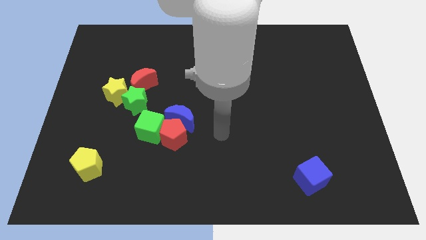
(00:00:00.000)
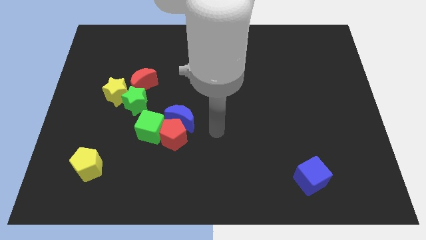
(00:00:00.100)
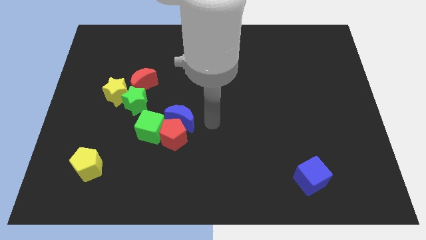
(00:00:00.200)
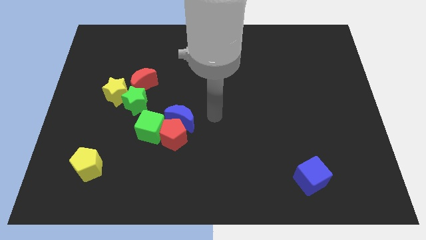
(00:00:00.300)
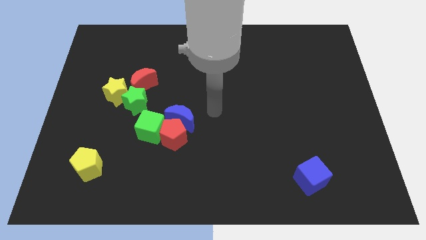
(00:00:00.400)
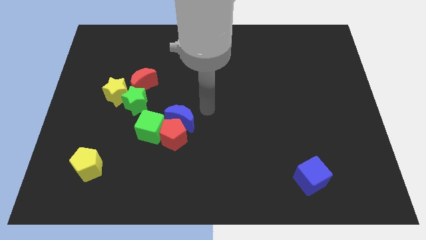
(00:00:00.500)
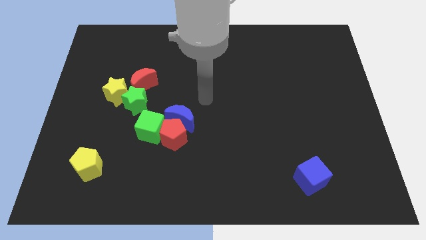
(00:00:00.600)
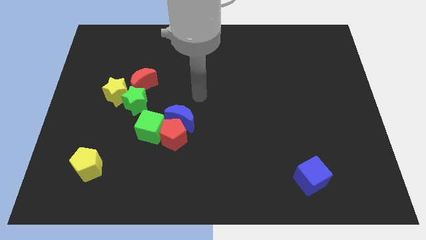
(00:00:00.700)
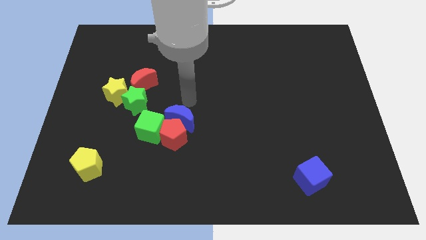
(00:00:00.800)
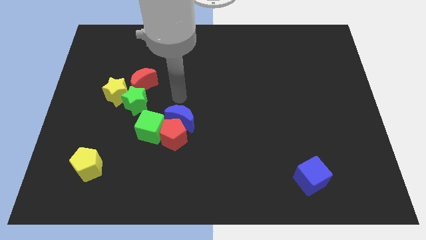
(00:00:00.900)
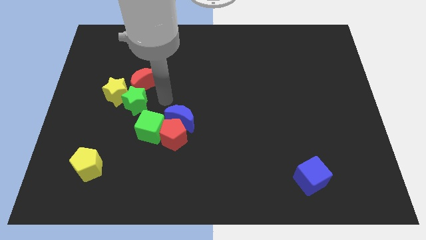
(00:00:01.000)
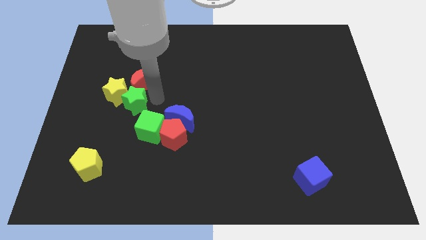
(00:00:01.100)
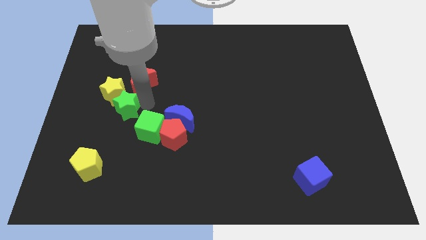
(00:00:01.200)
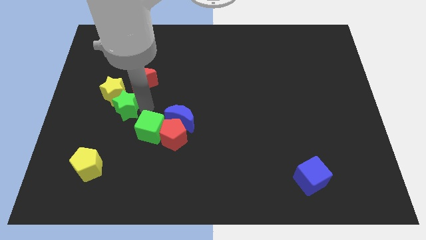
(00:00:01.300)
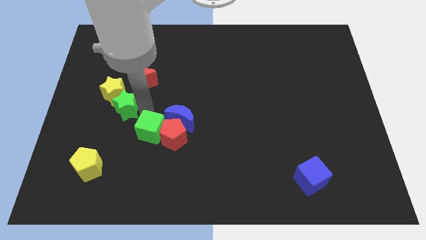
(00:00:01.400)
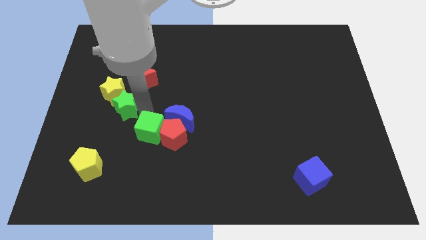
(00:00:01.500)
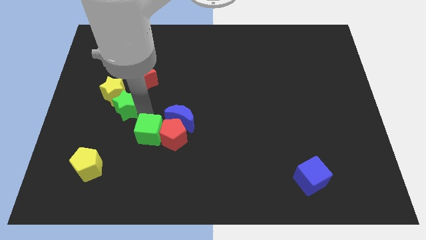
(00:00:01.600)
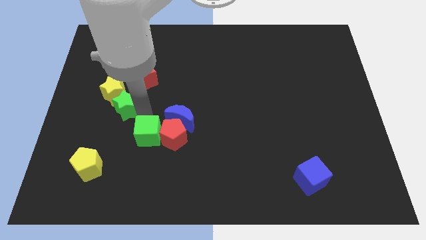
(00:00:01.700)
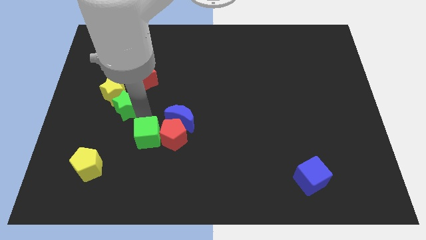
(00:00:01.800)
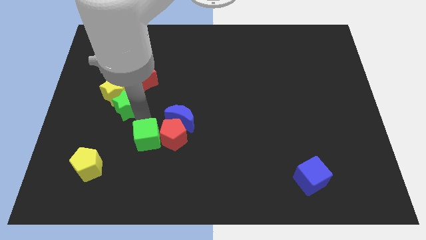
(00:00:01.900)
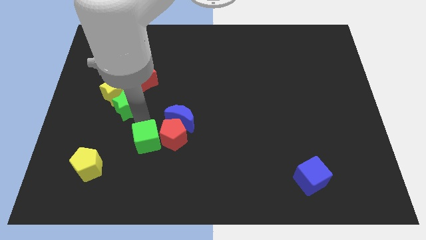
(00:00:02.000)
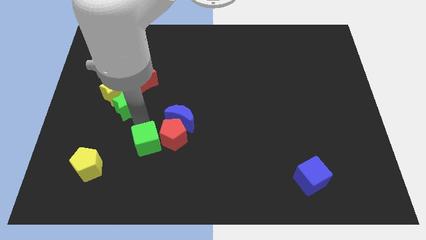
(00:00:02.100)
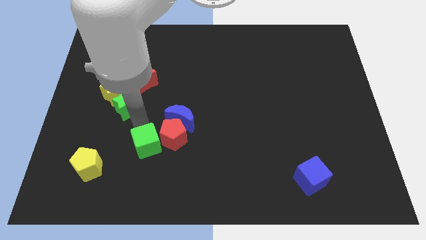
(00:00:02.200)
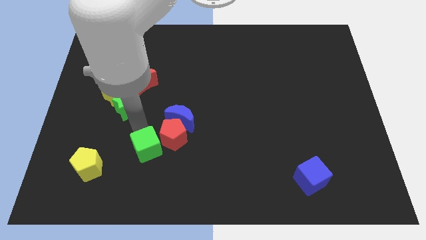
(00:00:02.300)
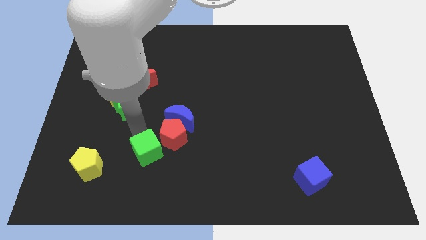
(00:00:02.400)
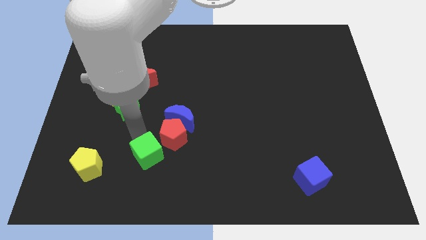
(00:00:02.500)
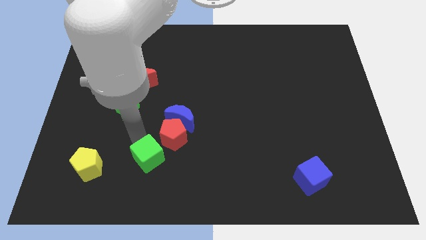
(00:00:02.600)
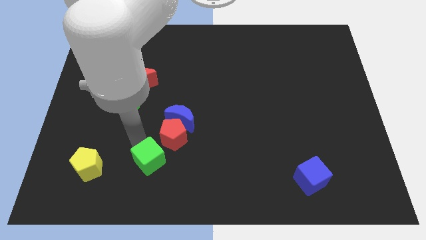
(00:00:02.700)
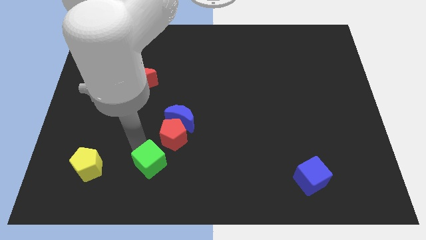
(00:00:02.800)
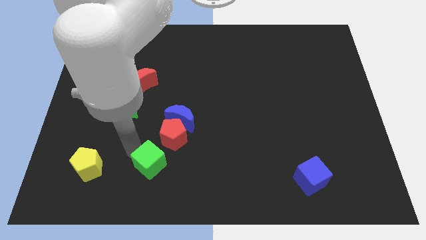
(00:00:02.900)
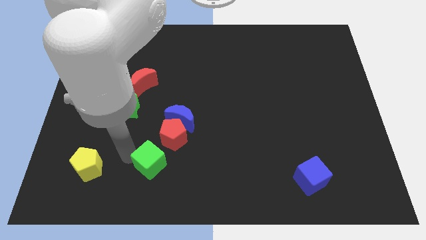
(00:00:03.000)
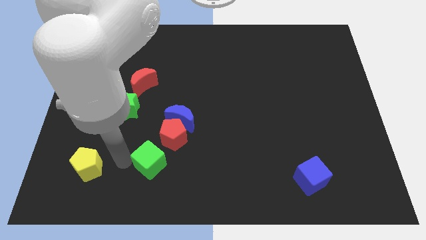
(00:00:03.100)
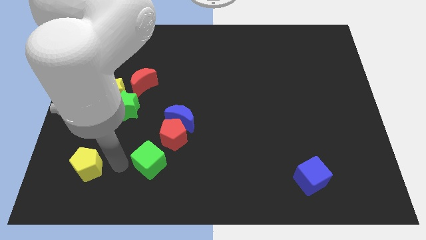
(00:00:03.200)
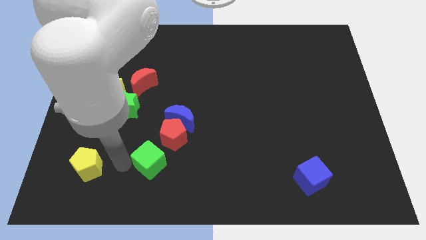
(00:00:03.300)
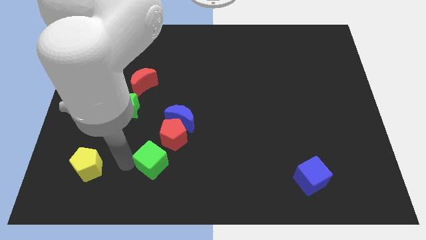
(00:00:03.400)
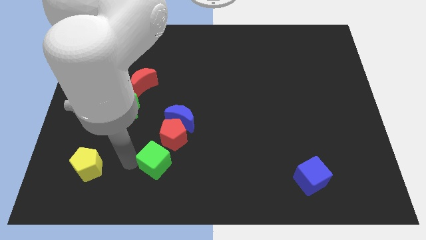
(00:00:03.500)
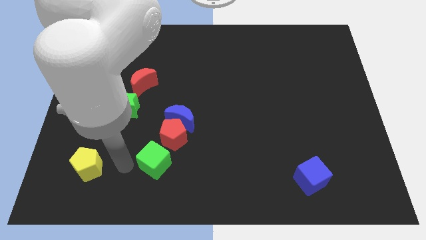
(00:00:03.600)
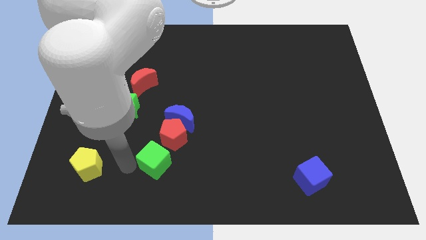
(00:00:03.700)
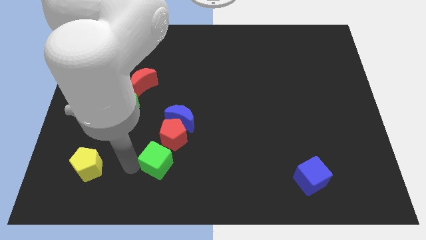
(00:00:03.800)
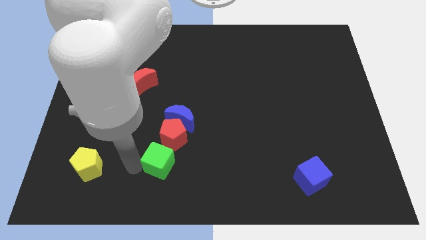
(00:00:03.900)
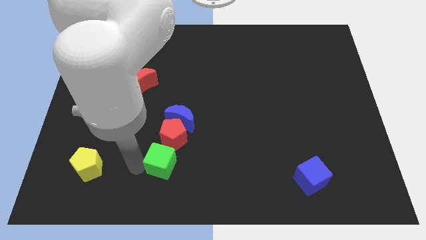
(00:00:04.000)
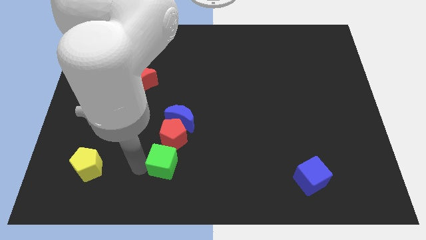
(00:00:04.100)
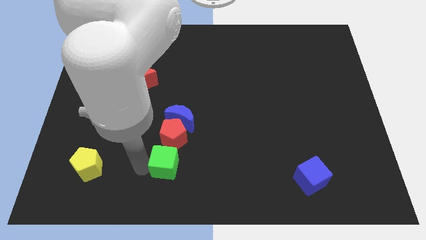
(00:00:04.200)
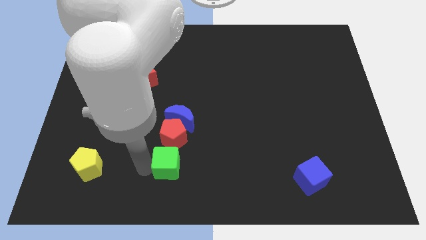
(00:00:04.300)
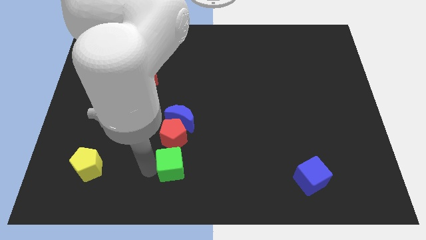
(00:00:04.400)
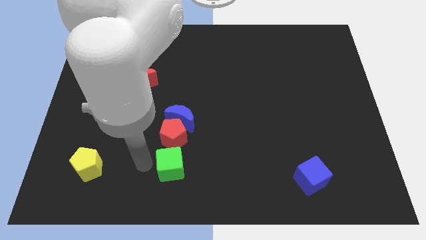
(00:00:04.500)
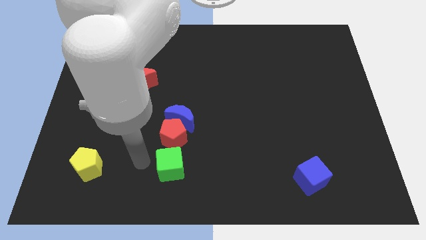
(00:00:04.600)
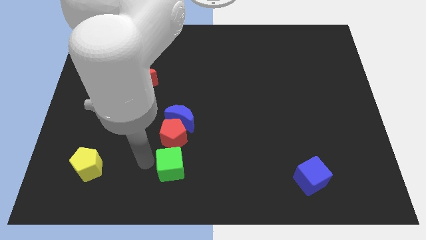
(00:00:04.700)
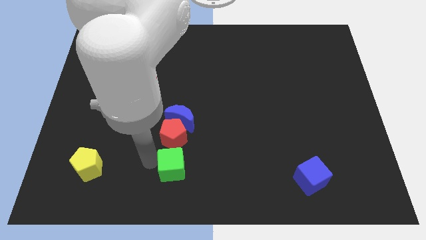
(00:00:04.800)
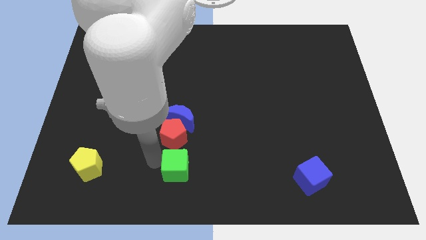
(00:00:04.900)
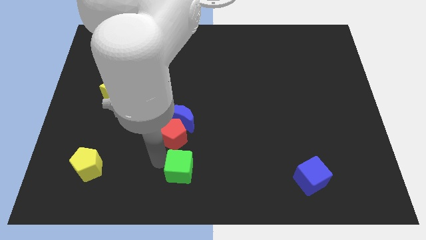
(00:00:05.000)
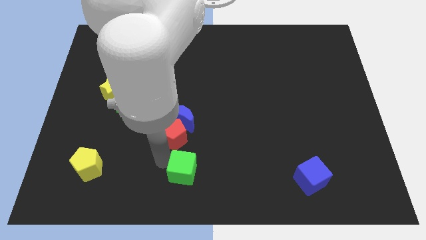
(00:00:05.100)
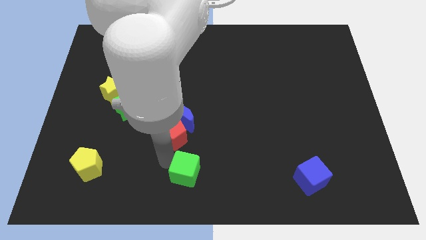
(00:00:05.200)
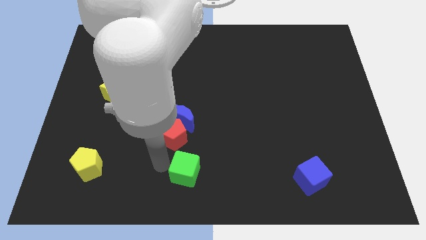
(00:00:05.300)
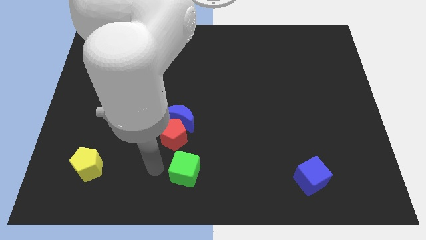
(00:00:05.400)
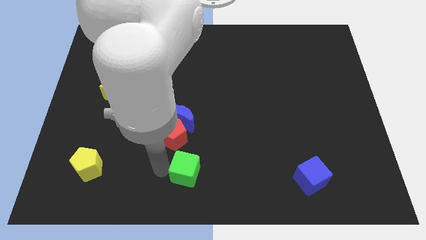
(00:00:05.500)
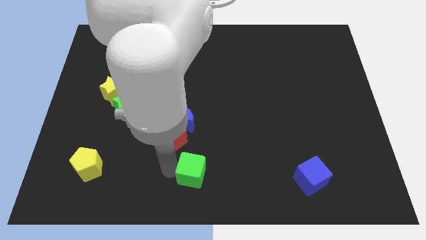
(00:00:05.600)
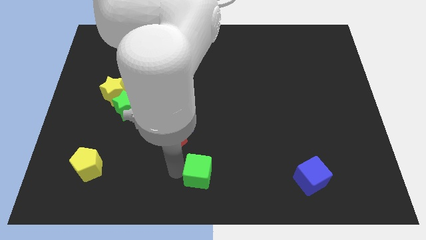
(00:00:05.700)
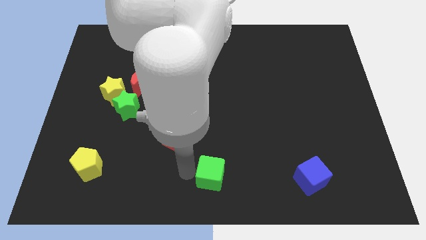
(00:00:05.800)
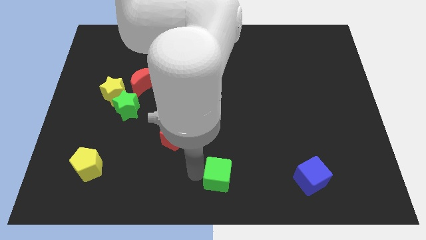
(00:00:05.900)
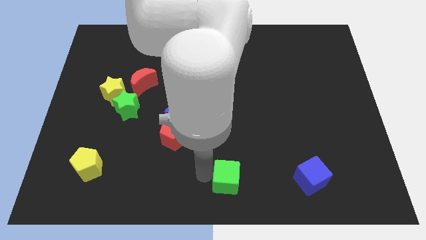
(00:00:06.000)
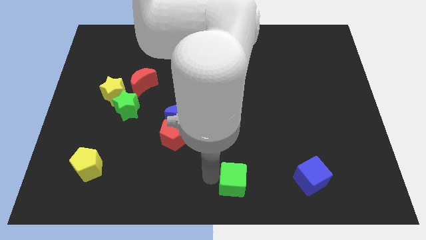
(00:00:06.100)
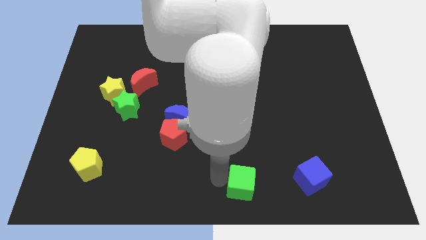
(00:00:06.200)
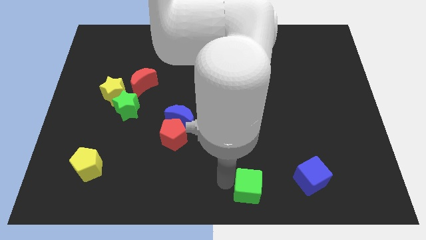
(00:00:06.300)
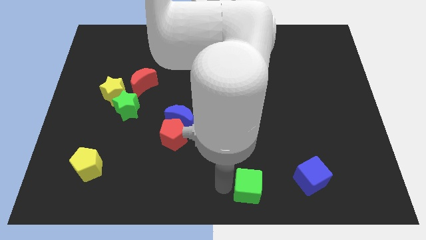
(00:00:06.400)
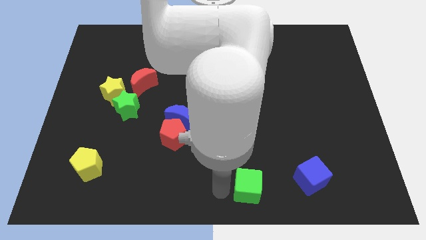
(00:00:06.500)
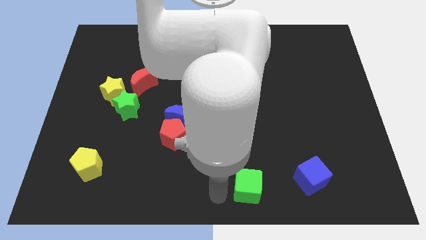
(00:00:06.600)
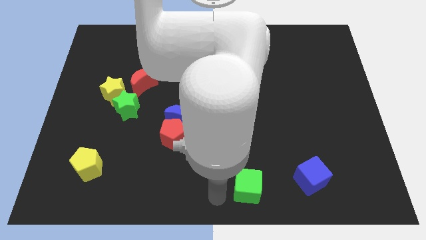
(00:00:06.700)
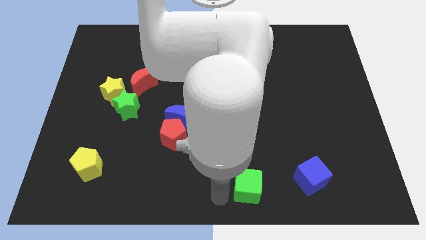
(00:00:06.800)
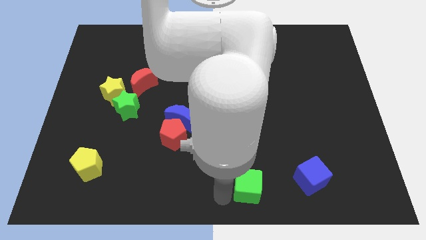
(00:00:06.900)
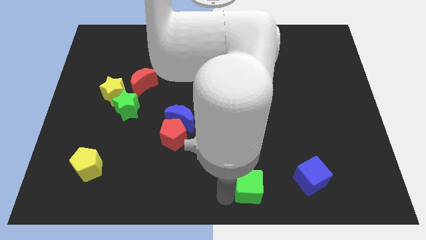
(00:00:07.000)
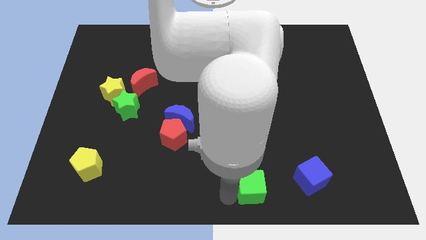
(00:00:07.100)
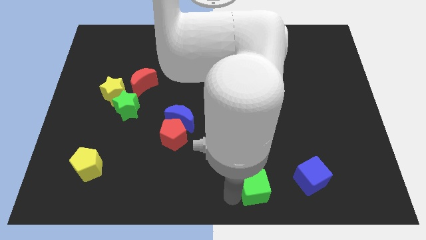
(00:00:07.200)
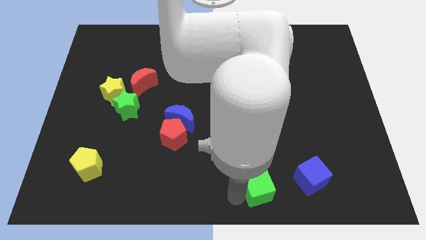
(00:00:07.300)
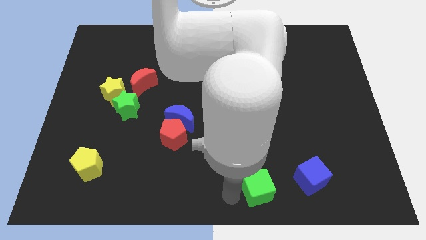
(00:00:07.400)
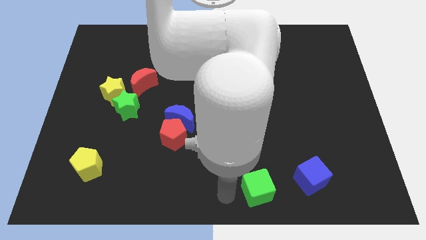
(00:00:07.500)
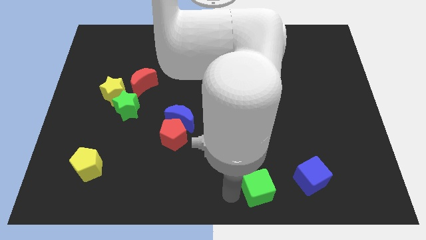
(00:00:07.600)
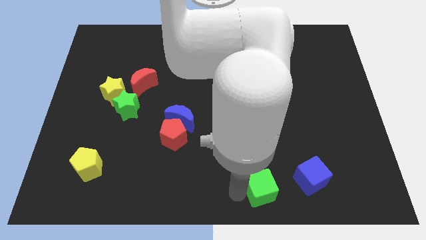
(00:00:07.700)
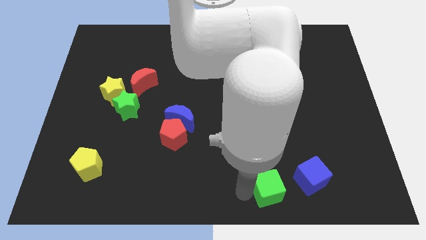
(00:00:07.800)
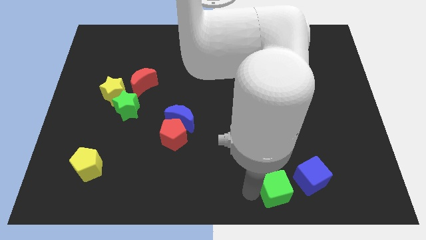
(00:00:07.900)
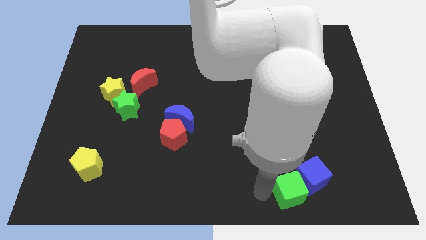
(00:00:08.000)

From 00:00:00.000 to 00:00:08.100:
put the green cube towards the blue cube
